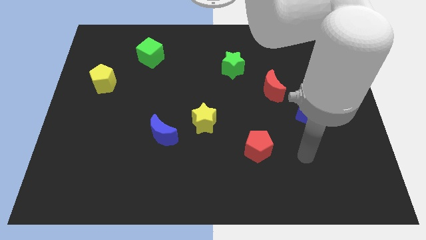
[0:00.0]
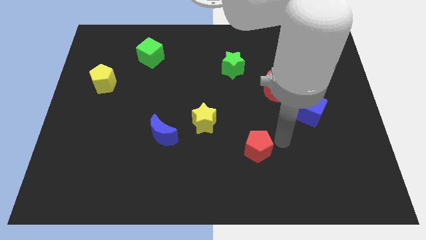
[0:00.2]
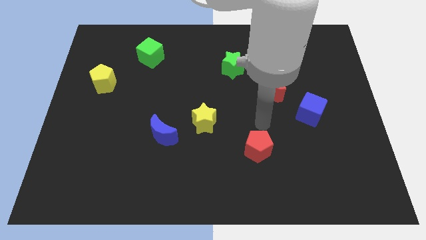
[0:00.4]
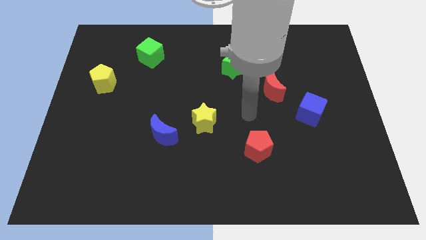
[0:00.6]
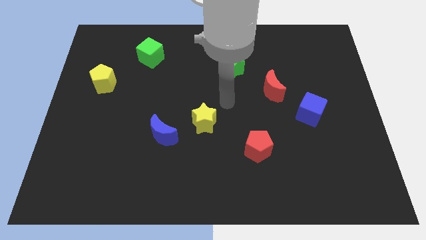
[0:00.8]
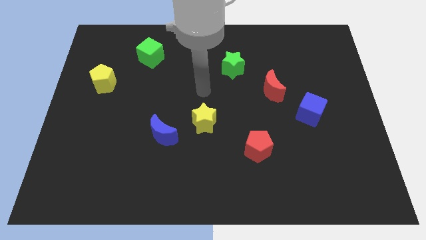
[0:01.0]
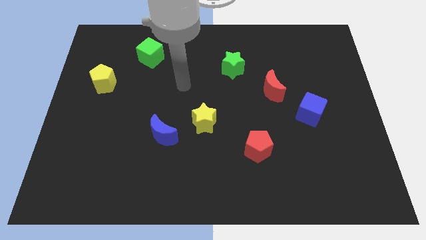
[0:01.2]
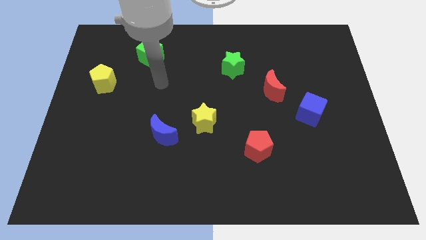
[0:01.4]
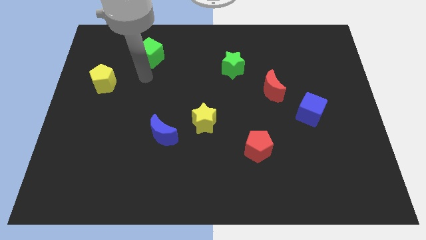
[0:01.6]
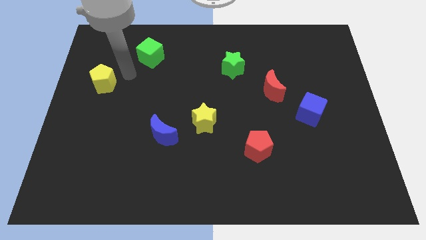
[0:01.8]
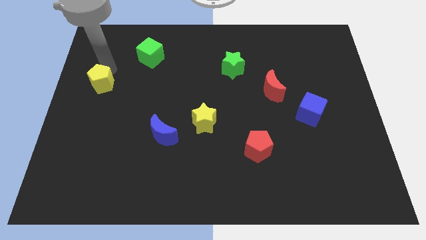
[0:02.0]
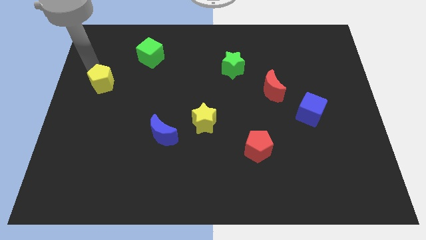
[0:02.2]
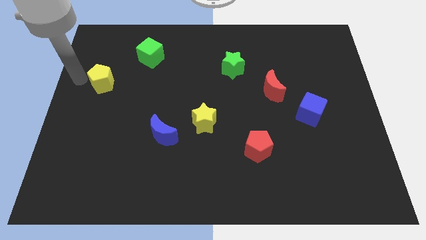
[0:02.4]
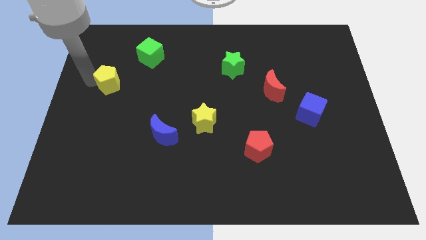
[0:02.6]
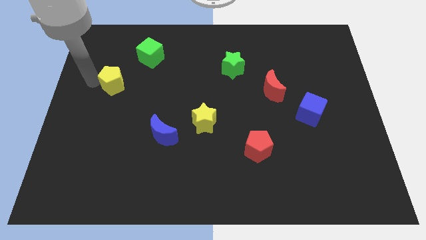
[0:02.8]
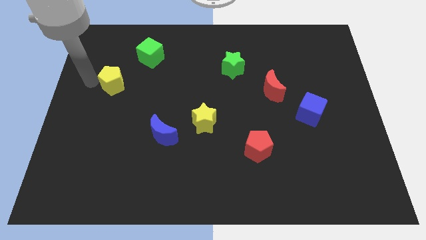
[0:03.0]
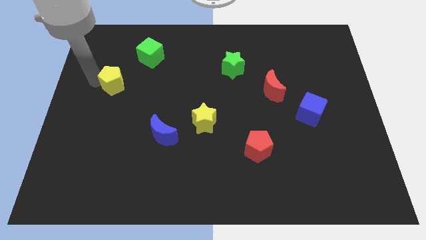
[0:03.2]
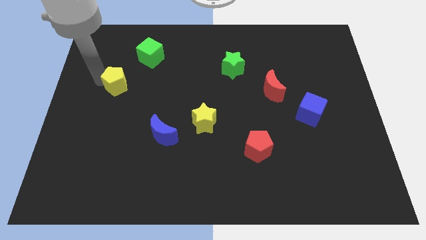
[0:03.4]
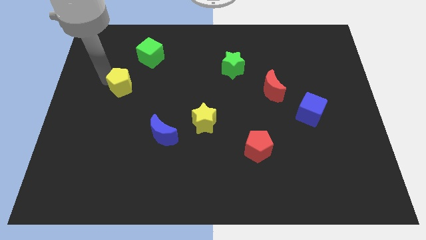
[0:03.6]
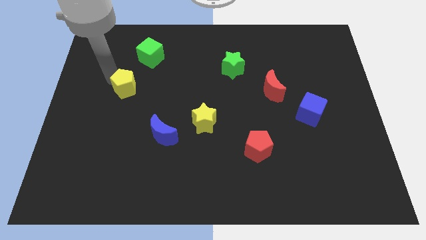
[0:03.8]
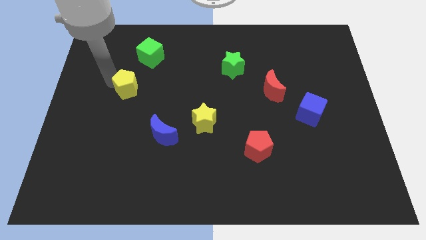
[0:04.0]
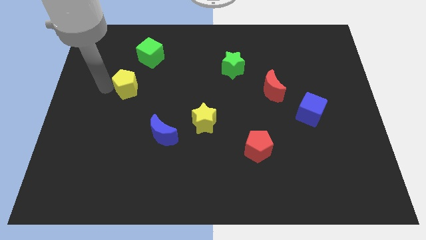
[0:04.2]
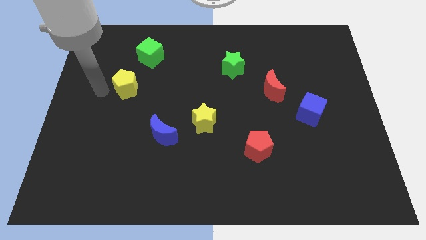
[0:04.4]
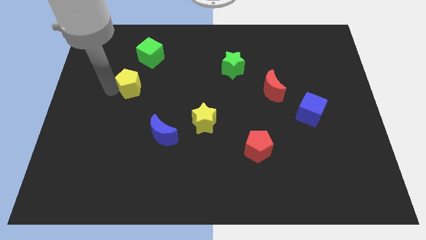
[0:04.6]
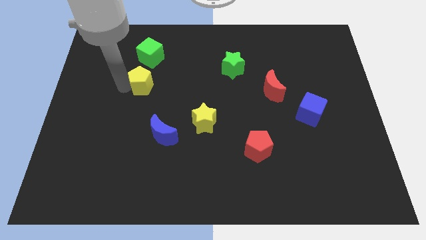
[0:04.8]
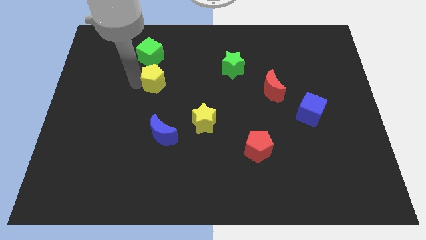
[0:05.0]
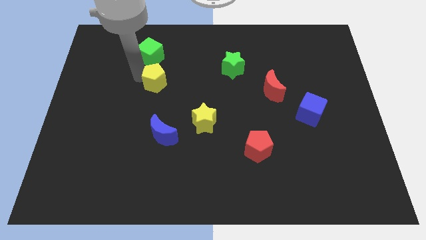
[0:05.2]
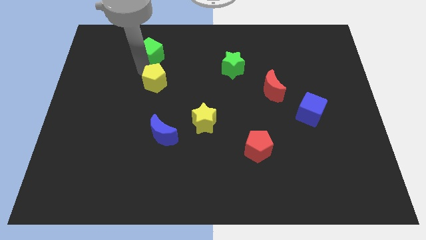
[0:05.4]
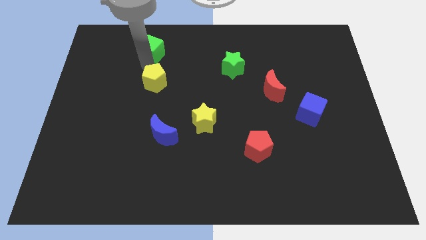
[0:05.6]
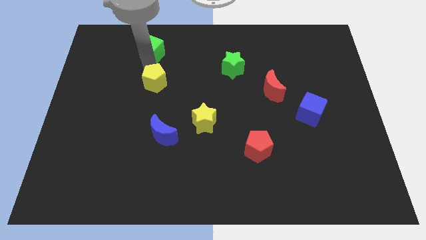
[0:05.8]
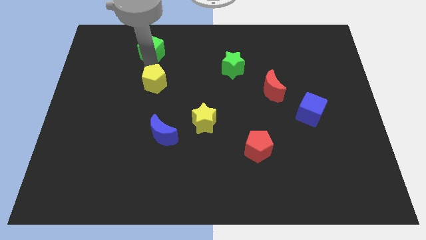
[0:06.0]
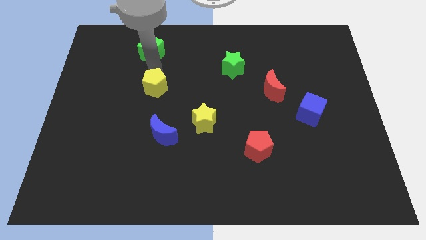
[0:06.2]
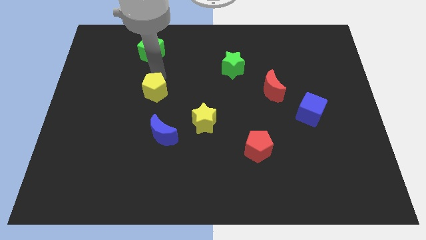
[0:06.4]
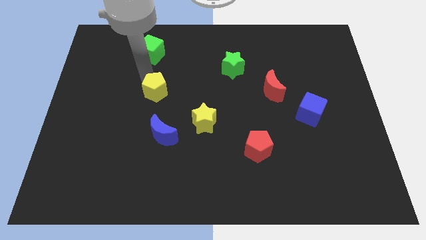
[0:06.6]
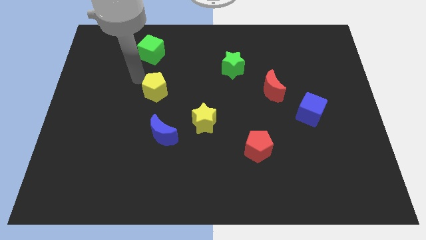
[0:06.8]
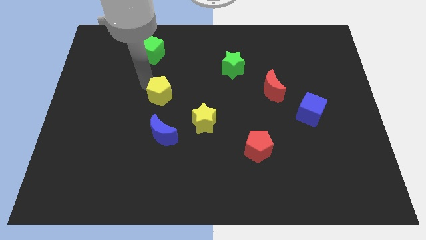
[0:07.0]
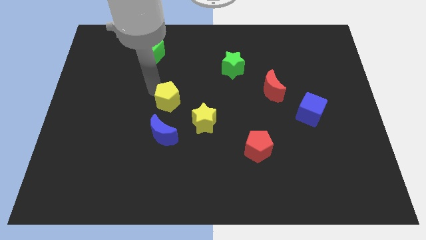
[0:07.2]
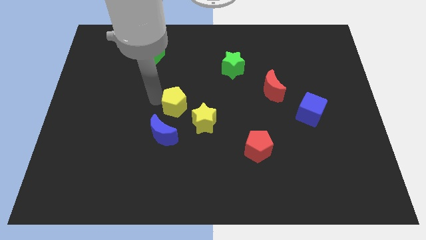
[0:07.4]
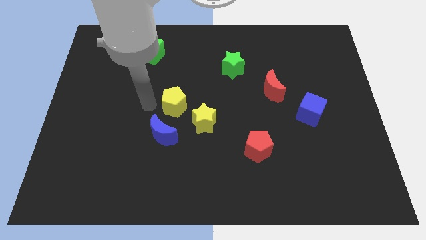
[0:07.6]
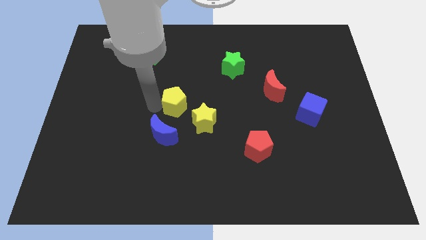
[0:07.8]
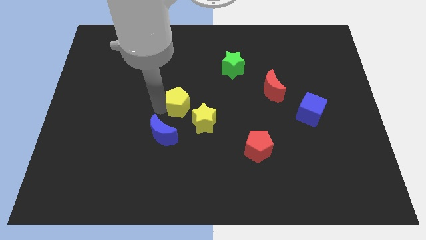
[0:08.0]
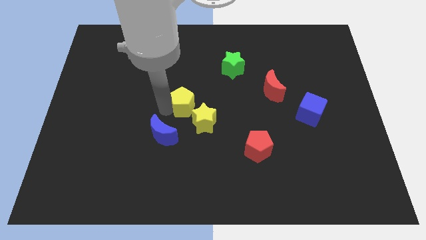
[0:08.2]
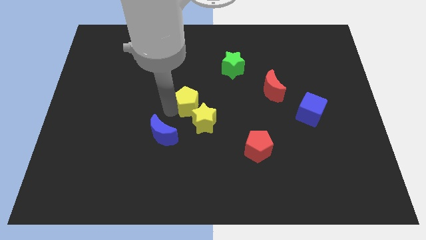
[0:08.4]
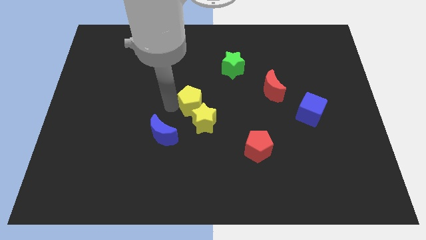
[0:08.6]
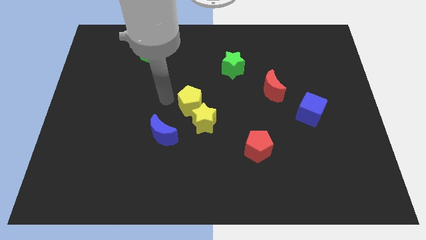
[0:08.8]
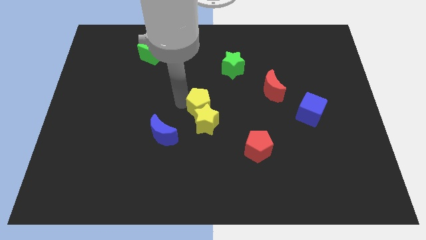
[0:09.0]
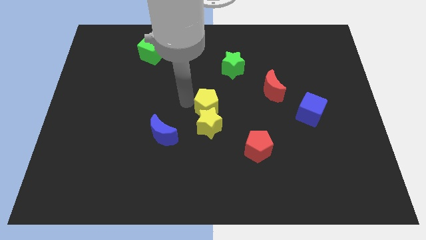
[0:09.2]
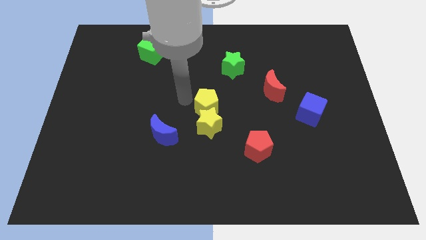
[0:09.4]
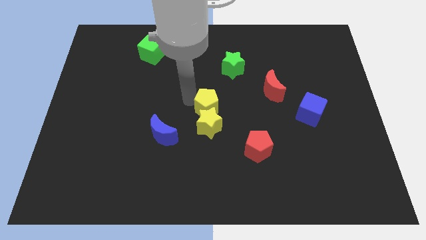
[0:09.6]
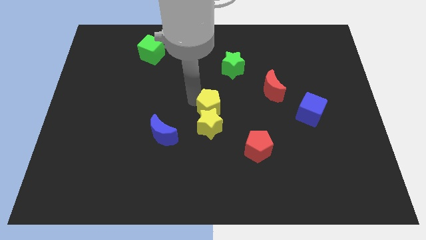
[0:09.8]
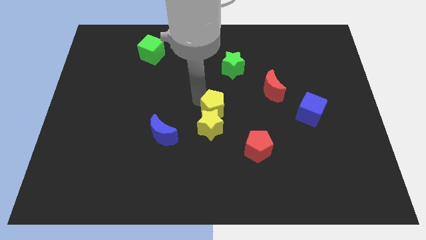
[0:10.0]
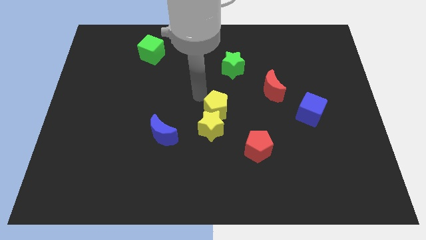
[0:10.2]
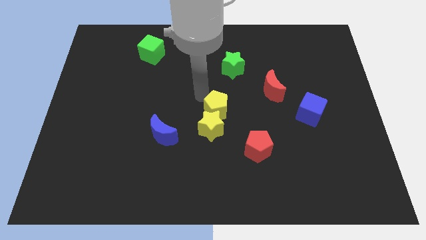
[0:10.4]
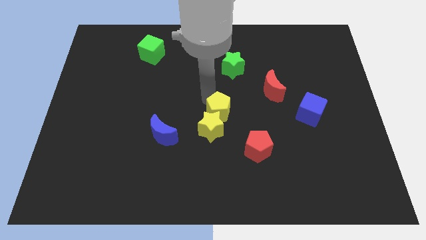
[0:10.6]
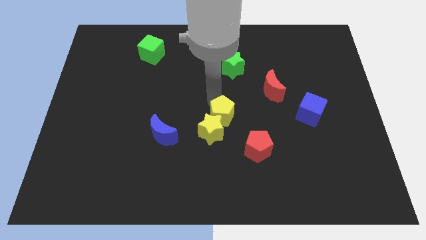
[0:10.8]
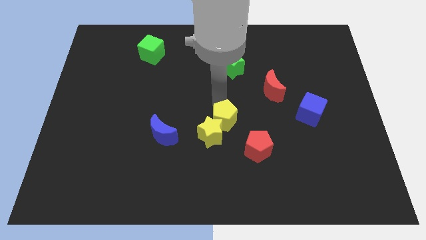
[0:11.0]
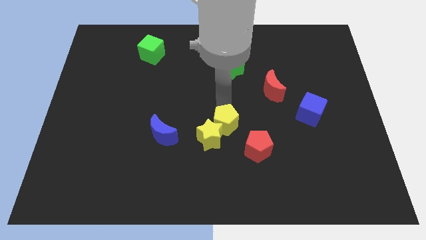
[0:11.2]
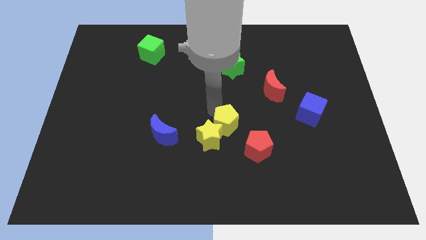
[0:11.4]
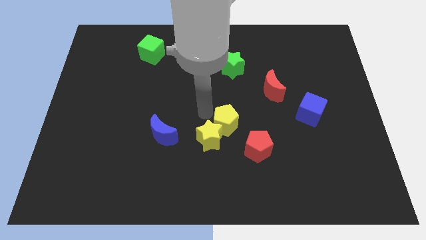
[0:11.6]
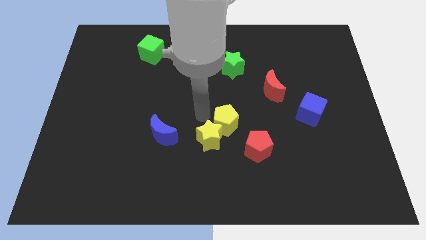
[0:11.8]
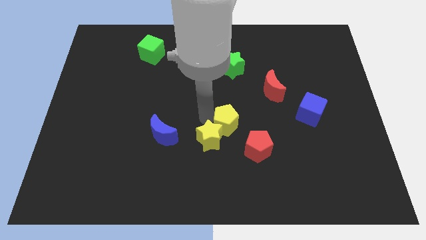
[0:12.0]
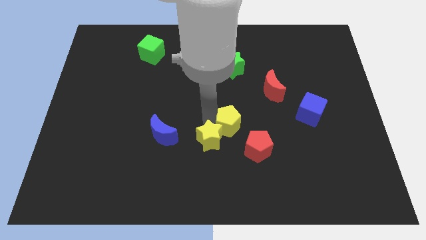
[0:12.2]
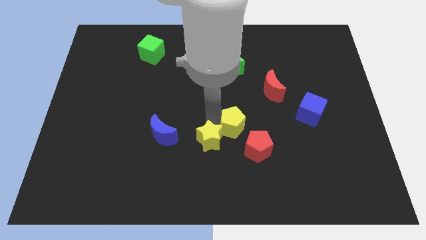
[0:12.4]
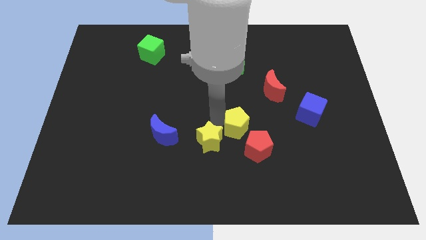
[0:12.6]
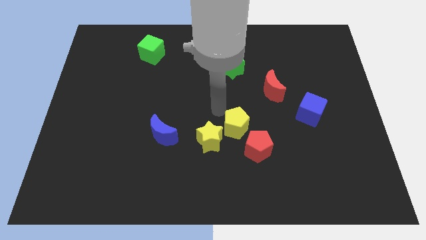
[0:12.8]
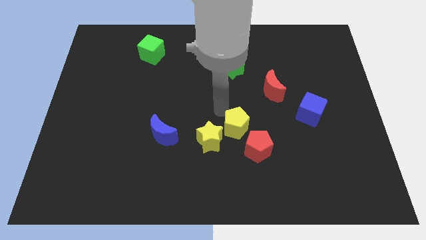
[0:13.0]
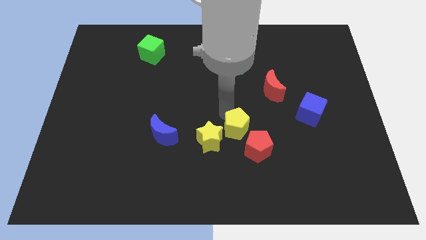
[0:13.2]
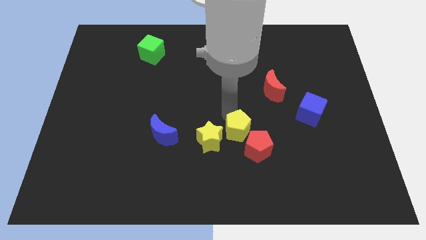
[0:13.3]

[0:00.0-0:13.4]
push the yellow pentagon next to the red pentagon

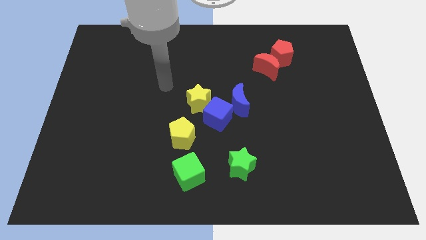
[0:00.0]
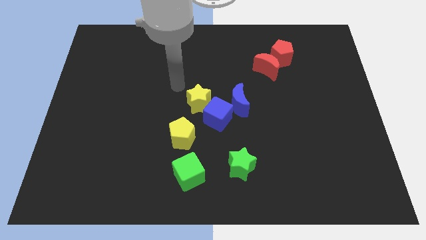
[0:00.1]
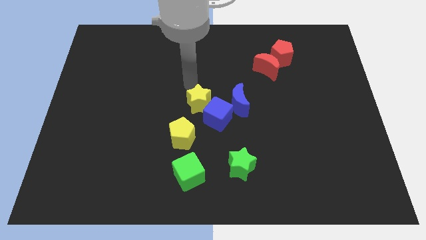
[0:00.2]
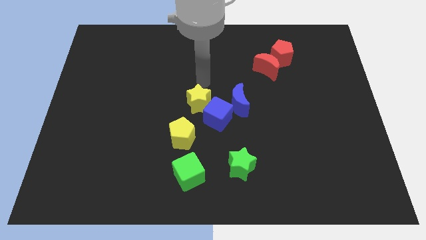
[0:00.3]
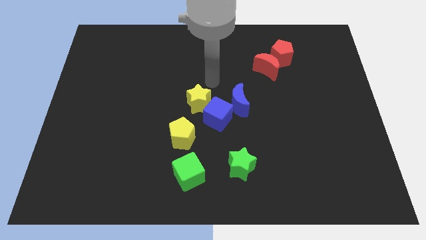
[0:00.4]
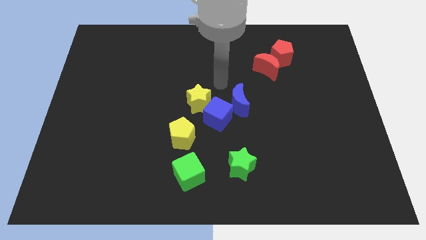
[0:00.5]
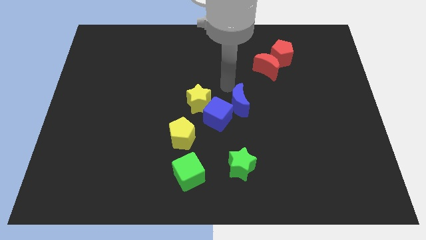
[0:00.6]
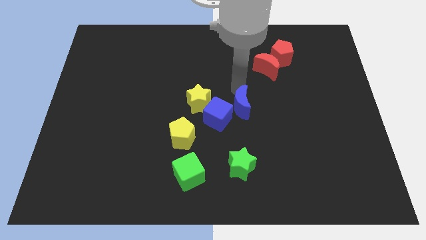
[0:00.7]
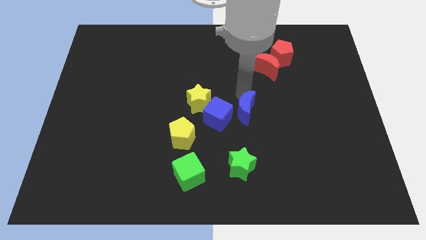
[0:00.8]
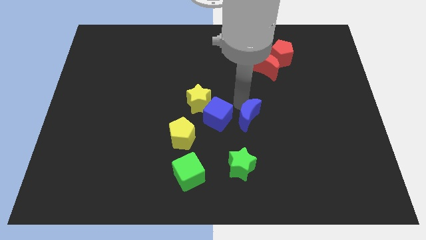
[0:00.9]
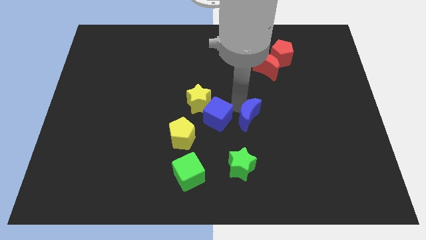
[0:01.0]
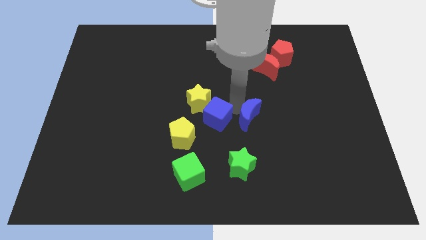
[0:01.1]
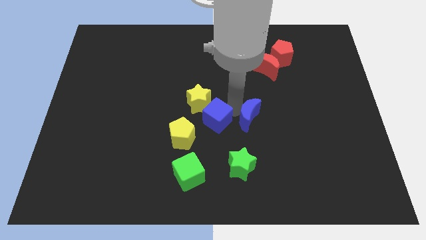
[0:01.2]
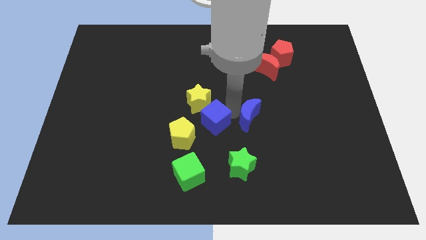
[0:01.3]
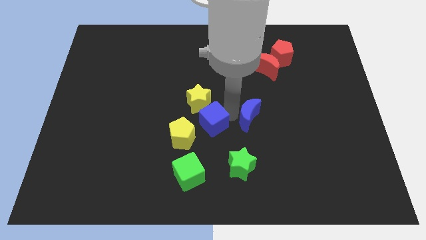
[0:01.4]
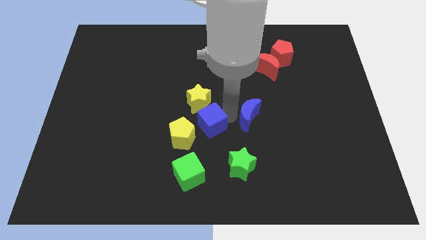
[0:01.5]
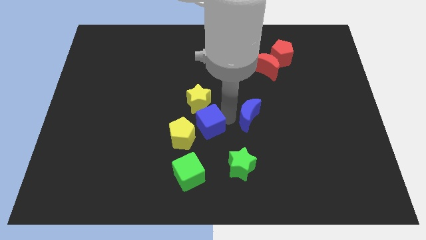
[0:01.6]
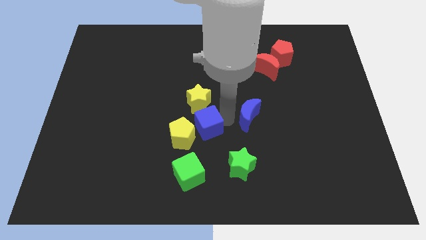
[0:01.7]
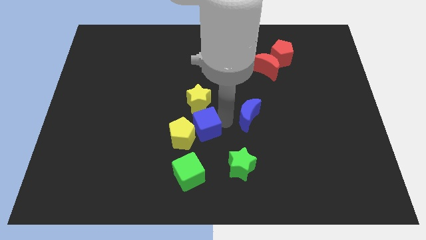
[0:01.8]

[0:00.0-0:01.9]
put the blue cube towards the yellow pentagon
